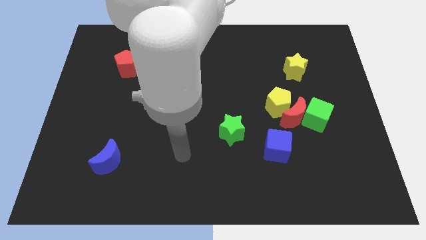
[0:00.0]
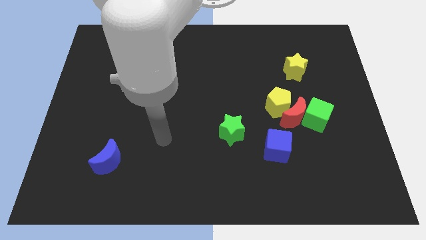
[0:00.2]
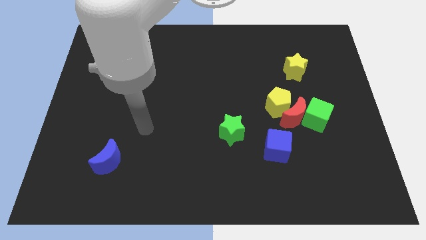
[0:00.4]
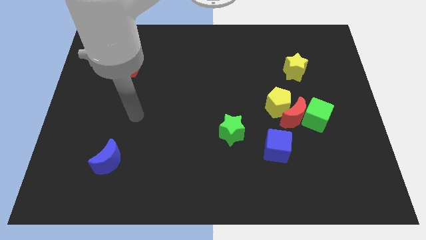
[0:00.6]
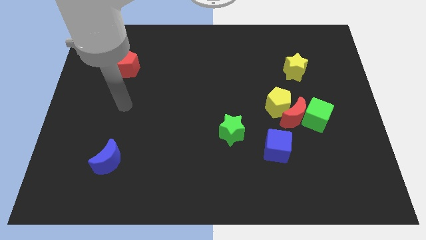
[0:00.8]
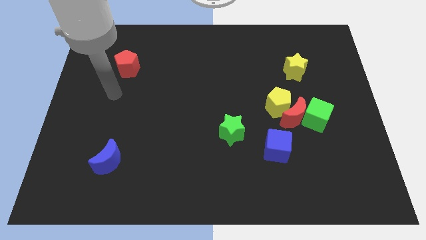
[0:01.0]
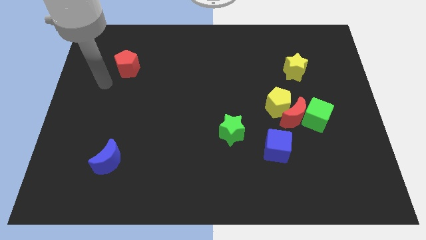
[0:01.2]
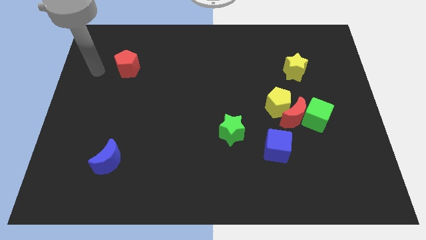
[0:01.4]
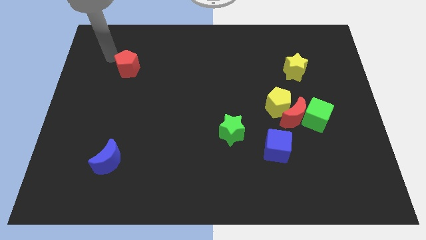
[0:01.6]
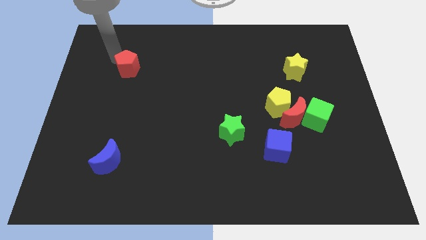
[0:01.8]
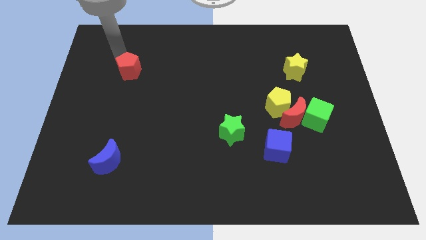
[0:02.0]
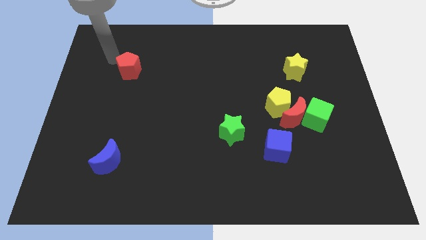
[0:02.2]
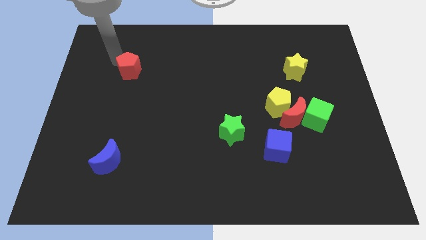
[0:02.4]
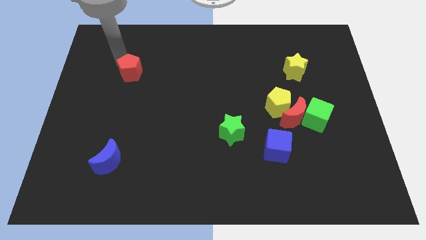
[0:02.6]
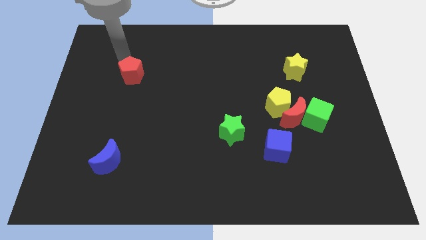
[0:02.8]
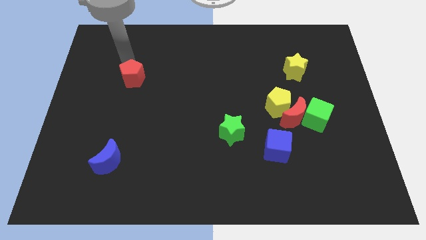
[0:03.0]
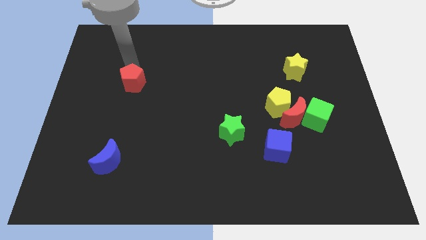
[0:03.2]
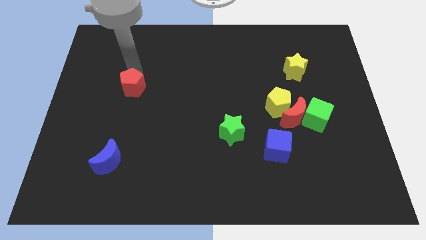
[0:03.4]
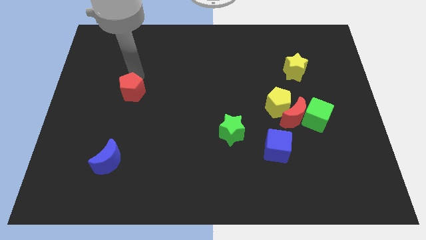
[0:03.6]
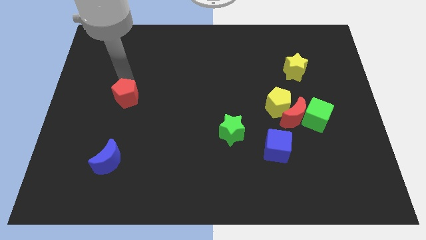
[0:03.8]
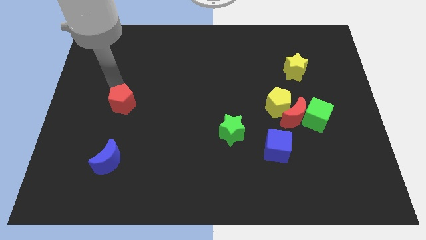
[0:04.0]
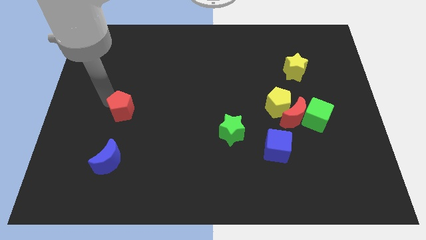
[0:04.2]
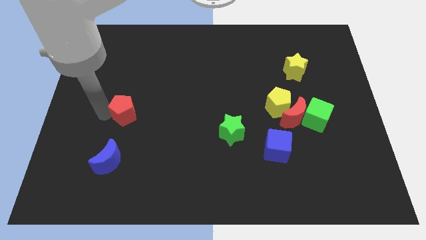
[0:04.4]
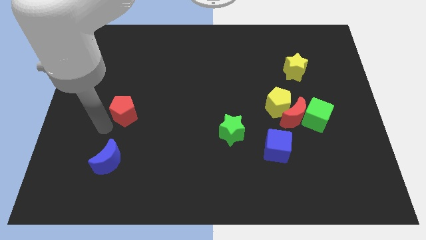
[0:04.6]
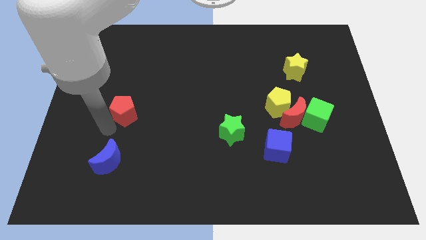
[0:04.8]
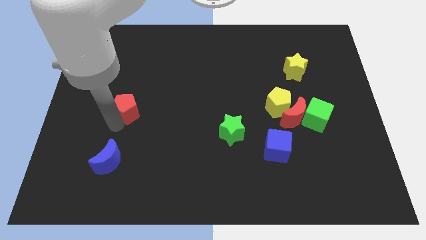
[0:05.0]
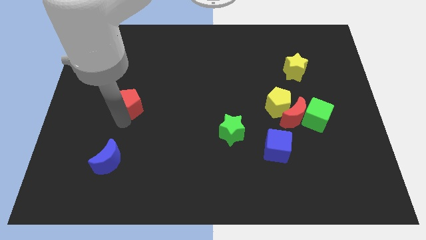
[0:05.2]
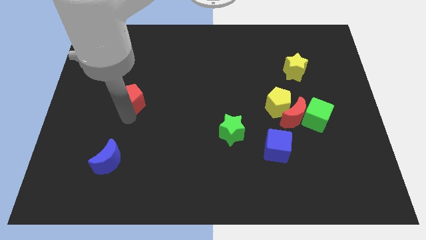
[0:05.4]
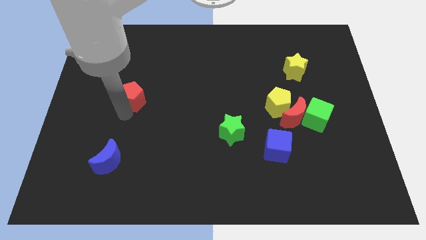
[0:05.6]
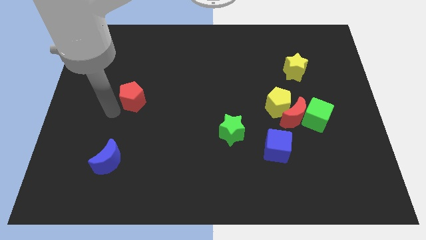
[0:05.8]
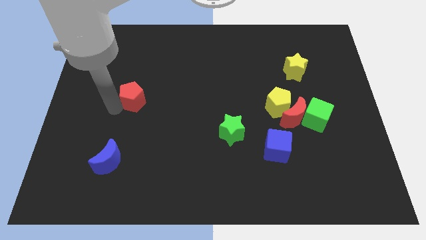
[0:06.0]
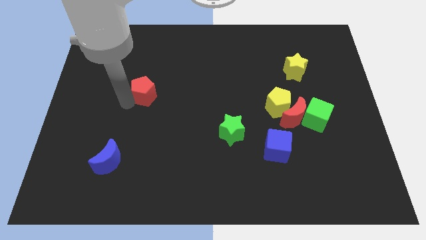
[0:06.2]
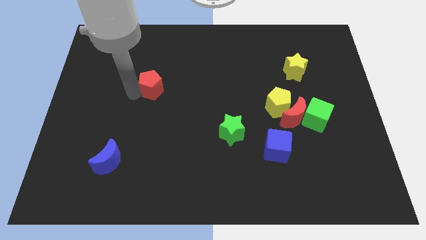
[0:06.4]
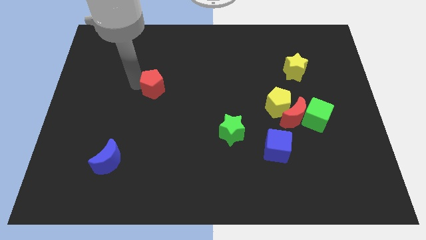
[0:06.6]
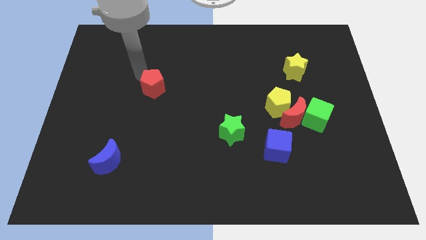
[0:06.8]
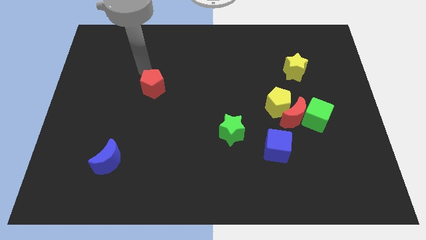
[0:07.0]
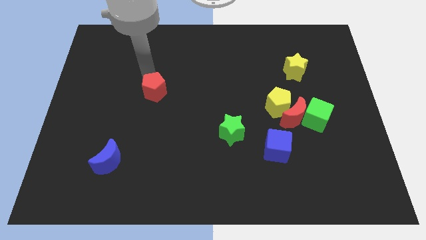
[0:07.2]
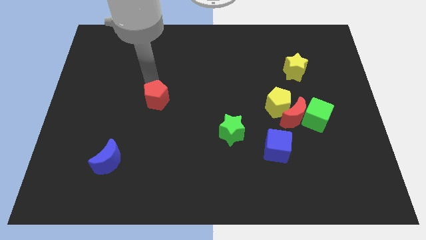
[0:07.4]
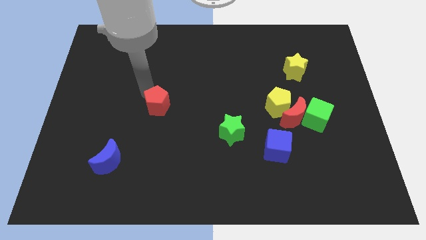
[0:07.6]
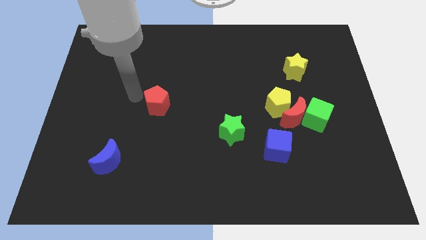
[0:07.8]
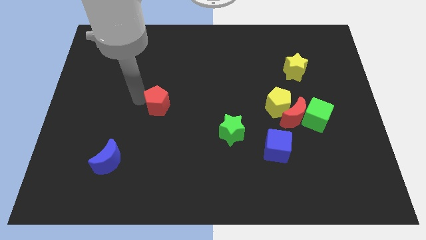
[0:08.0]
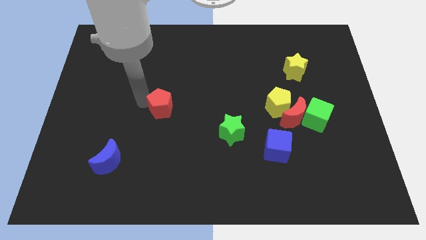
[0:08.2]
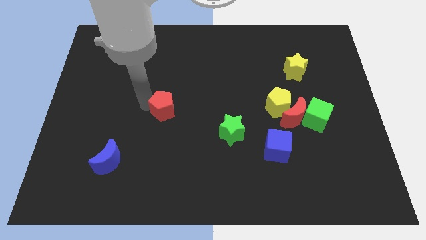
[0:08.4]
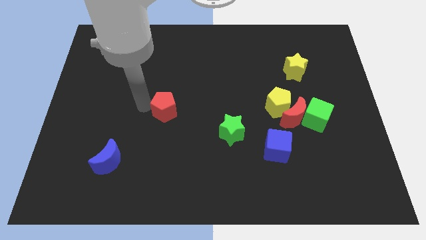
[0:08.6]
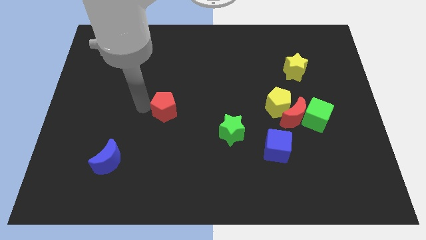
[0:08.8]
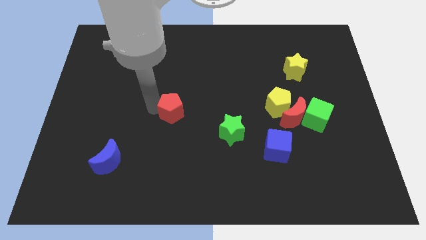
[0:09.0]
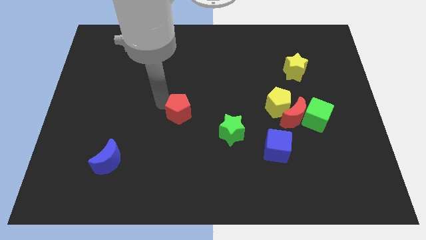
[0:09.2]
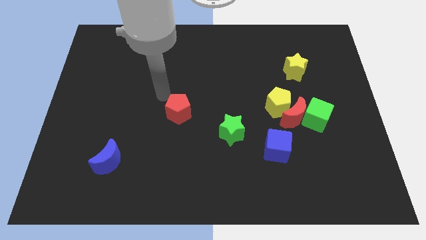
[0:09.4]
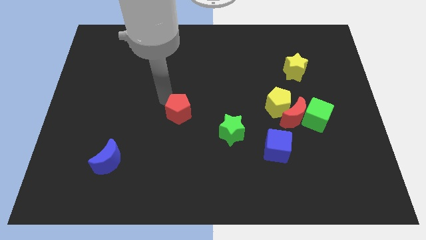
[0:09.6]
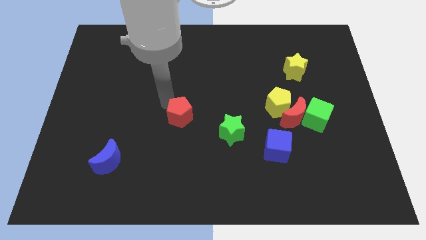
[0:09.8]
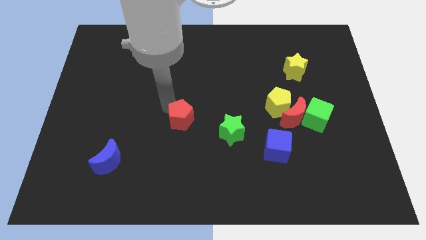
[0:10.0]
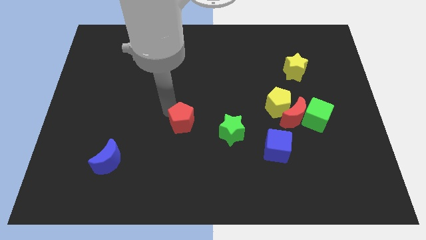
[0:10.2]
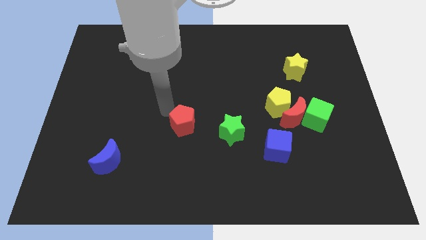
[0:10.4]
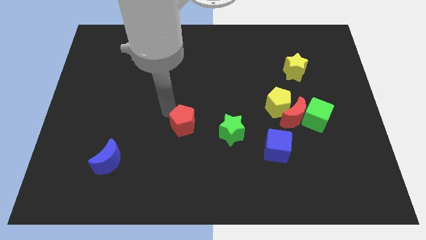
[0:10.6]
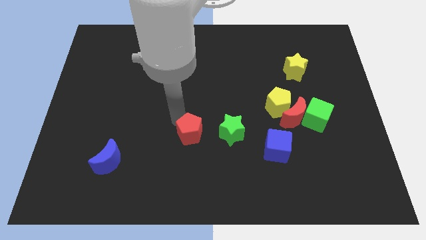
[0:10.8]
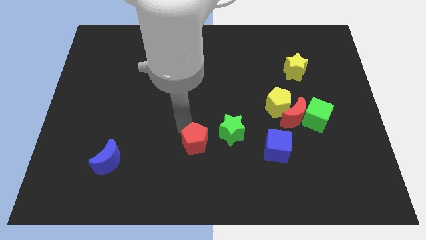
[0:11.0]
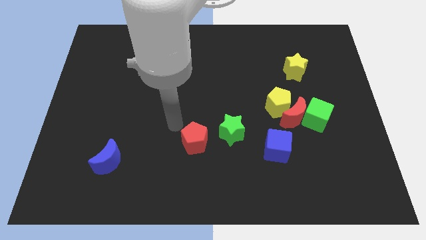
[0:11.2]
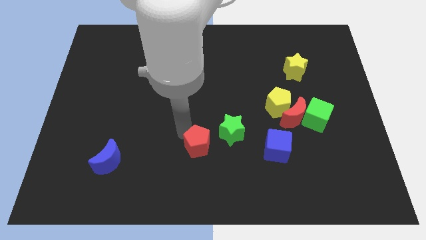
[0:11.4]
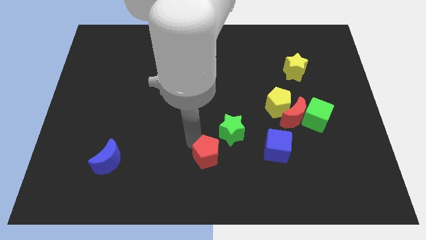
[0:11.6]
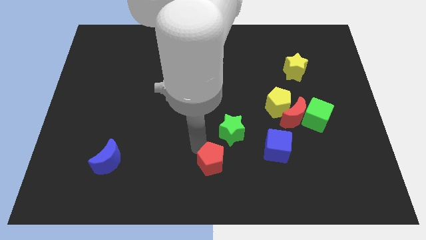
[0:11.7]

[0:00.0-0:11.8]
put the red pentagon below the green star
